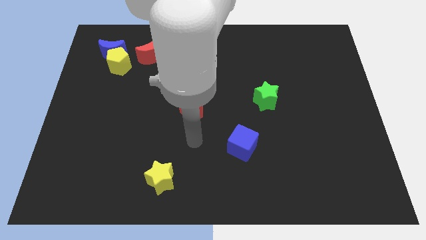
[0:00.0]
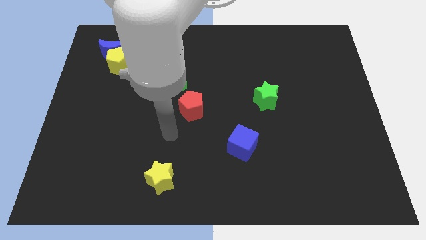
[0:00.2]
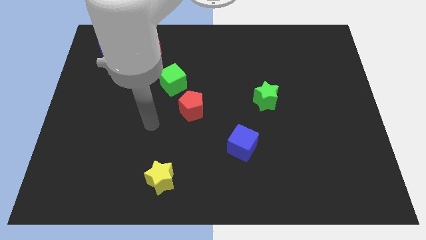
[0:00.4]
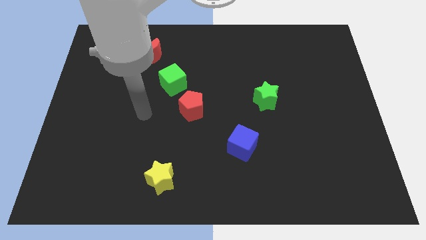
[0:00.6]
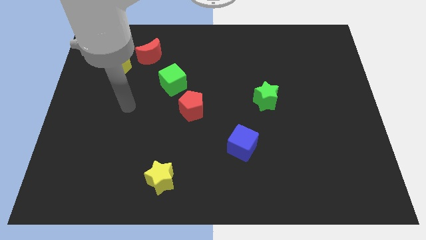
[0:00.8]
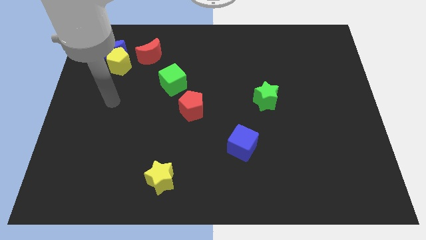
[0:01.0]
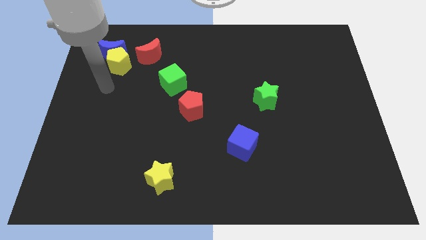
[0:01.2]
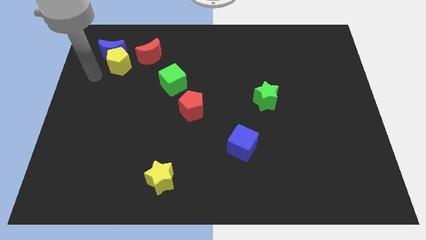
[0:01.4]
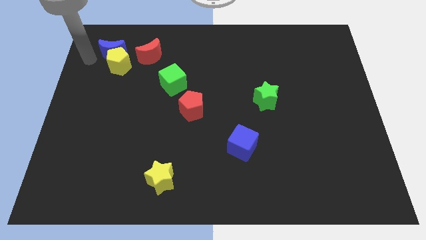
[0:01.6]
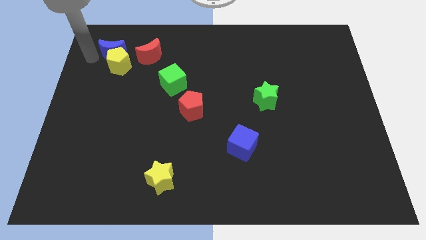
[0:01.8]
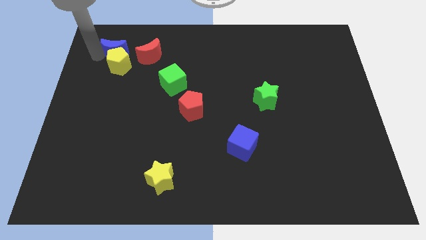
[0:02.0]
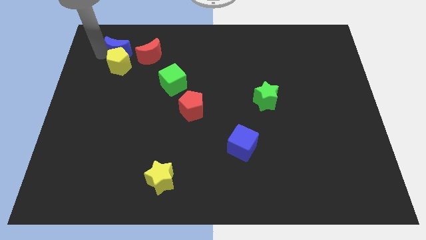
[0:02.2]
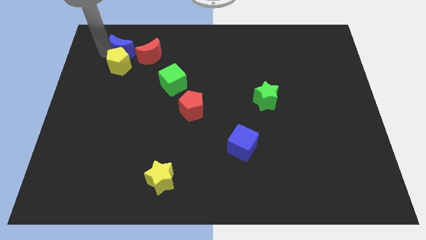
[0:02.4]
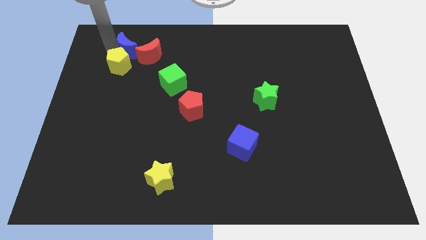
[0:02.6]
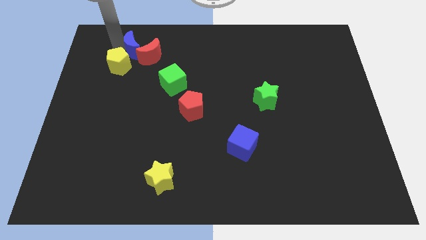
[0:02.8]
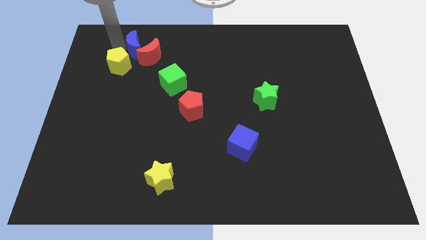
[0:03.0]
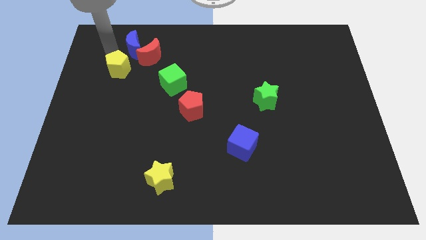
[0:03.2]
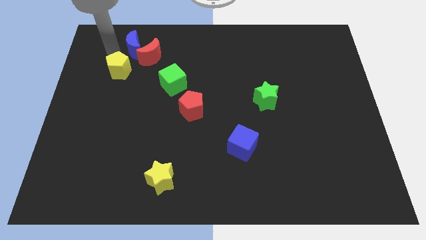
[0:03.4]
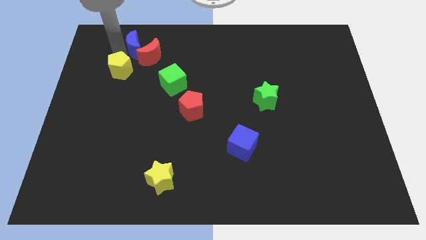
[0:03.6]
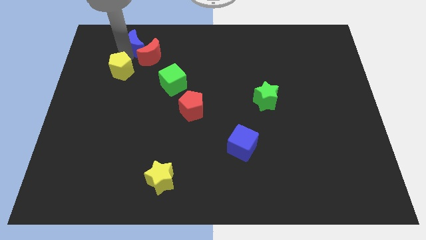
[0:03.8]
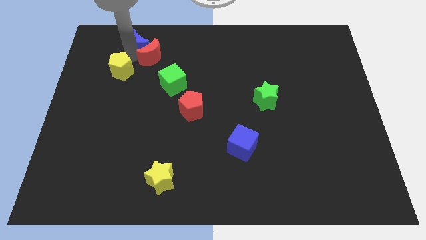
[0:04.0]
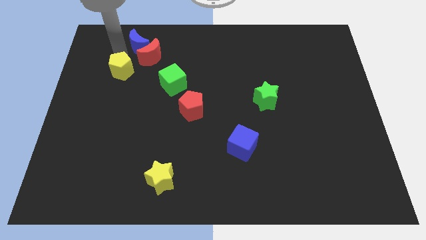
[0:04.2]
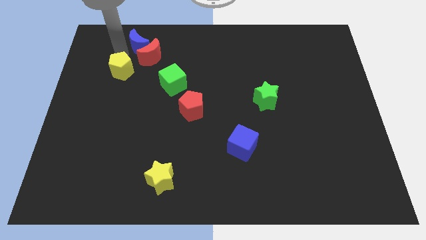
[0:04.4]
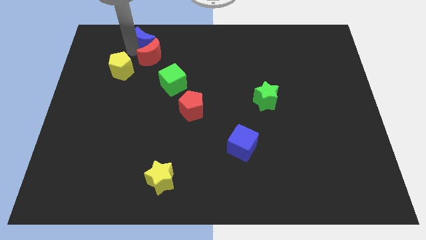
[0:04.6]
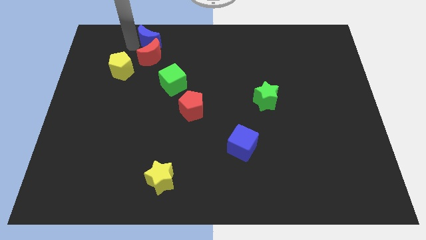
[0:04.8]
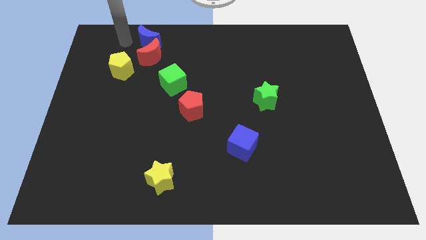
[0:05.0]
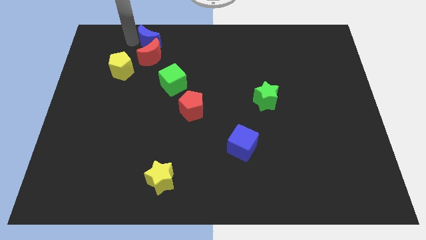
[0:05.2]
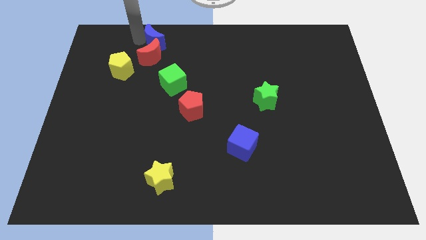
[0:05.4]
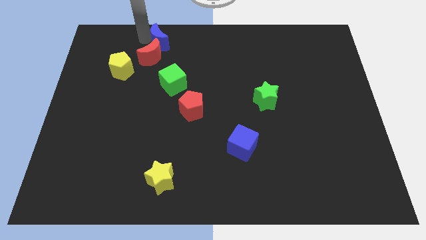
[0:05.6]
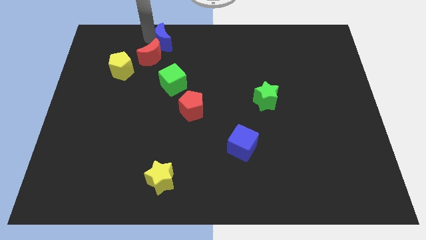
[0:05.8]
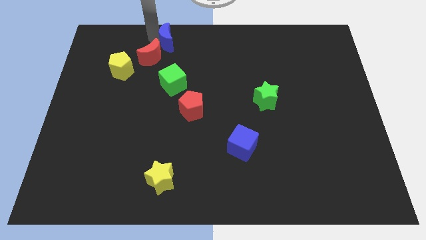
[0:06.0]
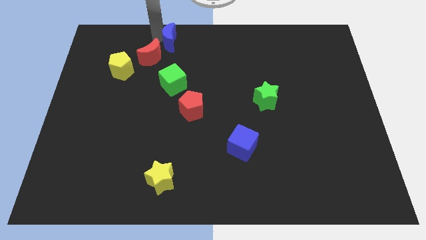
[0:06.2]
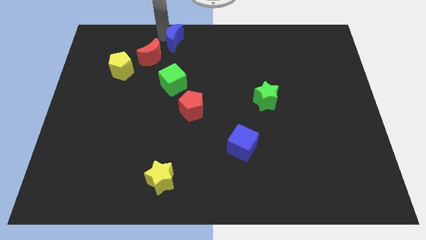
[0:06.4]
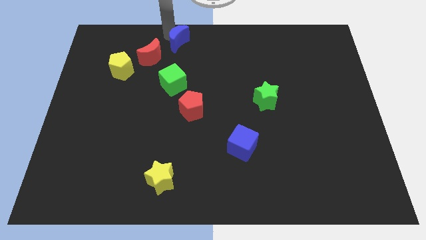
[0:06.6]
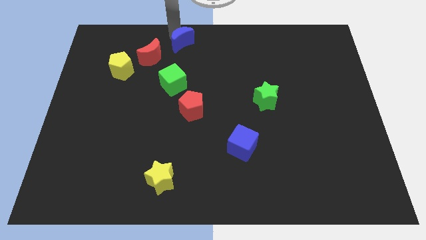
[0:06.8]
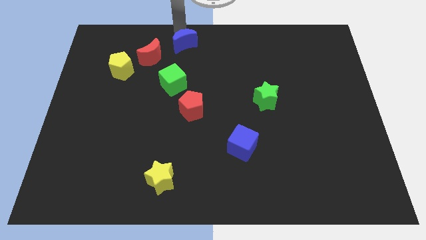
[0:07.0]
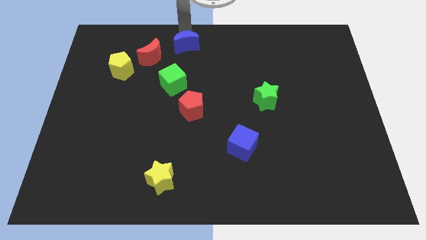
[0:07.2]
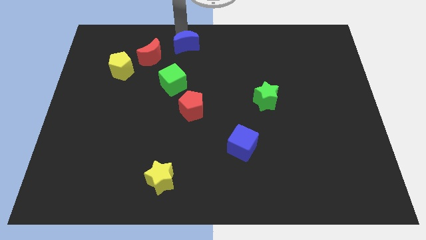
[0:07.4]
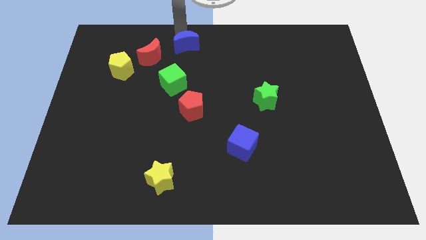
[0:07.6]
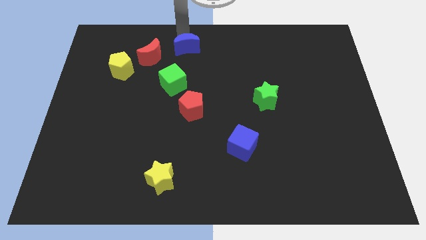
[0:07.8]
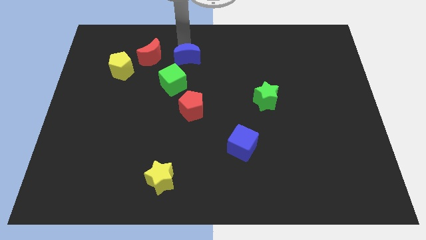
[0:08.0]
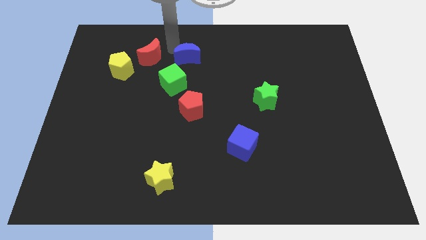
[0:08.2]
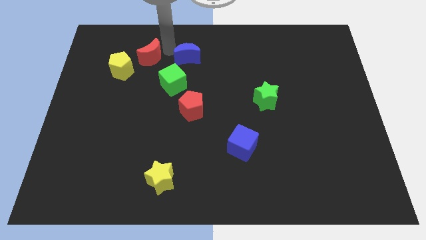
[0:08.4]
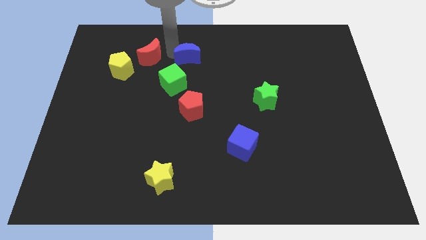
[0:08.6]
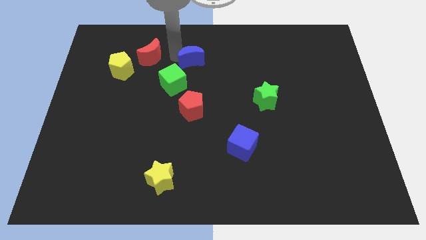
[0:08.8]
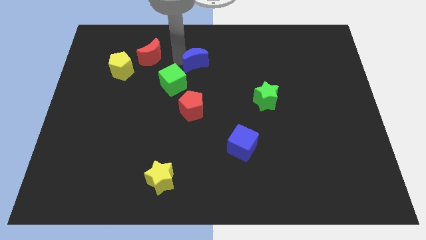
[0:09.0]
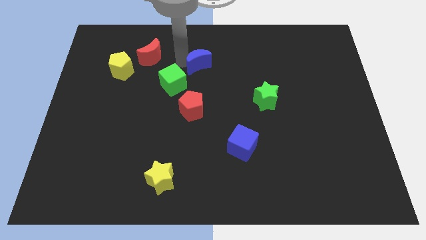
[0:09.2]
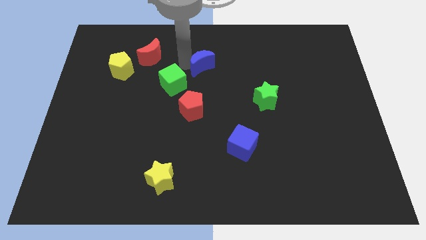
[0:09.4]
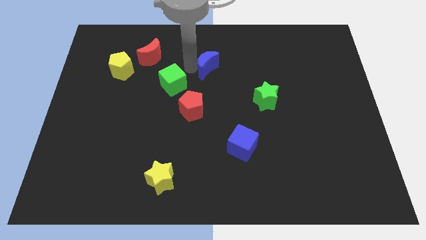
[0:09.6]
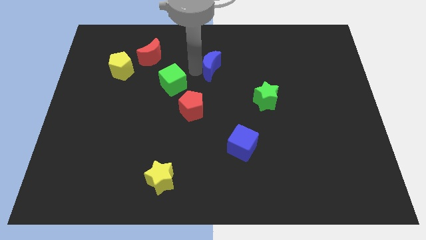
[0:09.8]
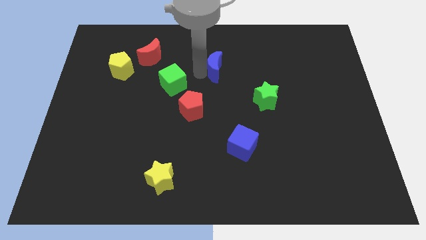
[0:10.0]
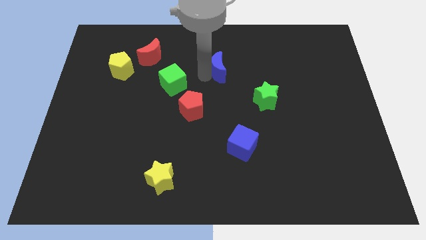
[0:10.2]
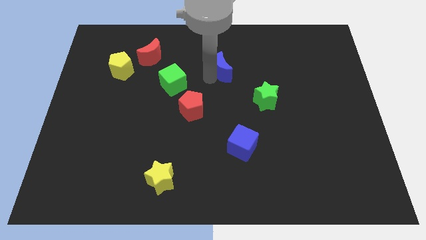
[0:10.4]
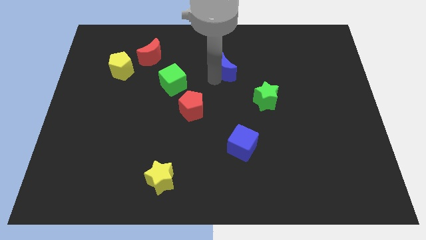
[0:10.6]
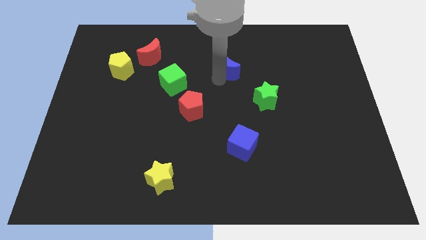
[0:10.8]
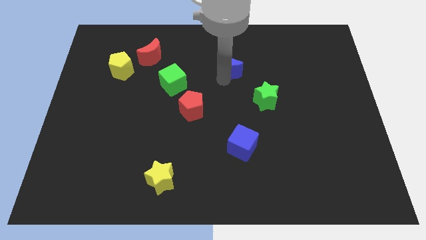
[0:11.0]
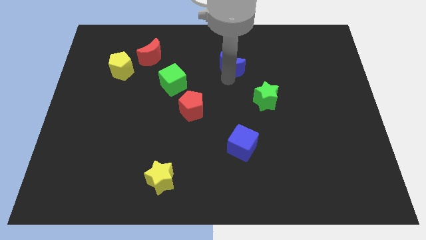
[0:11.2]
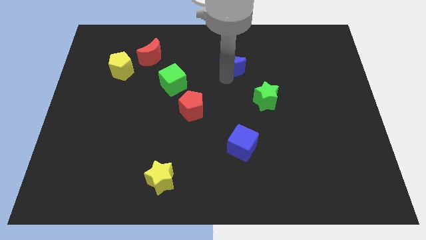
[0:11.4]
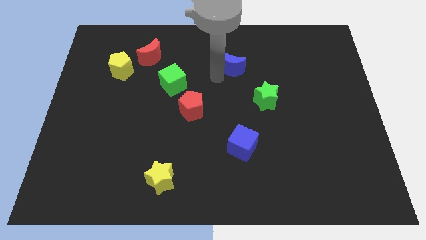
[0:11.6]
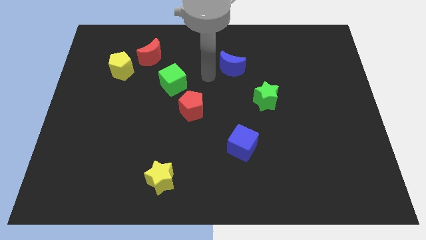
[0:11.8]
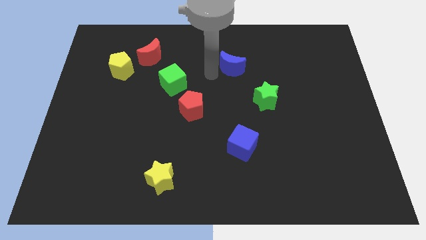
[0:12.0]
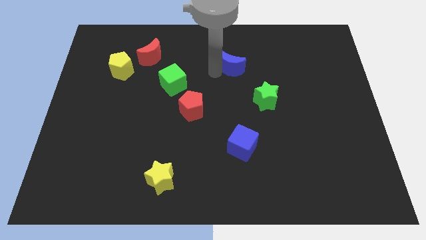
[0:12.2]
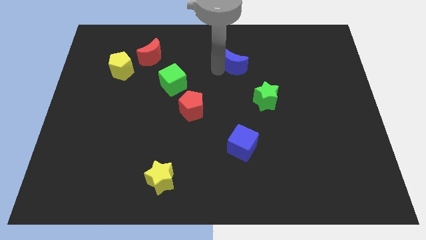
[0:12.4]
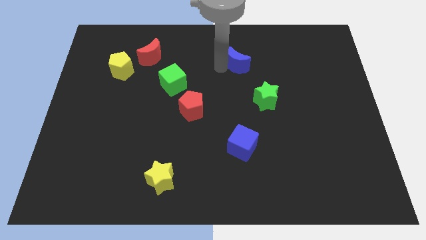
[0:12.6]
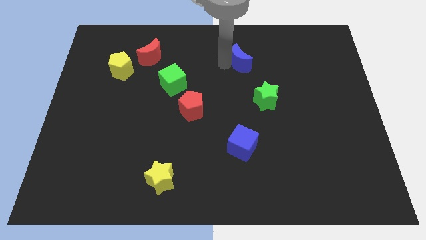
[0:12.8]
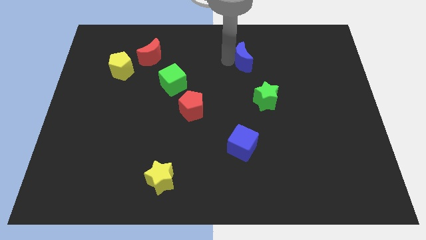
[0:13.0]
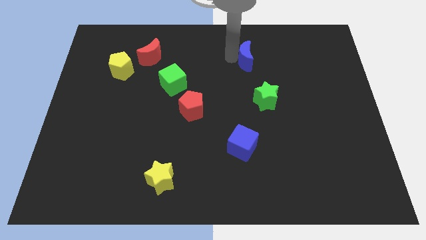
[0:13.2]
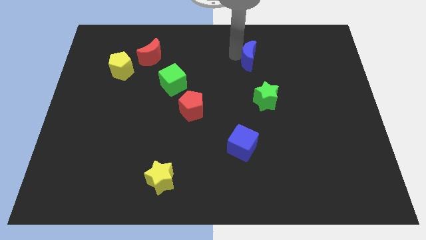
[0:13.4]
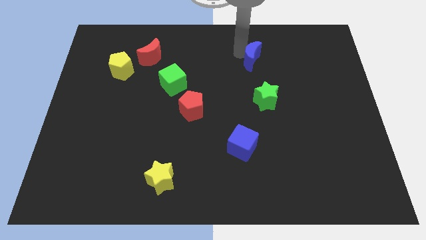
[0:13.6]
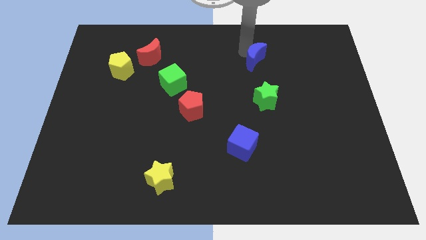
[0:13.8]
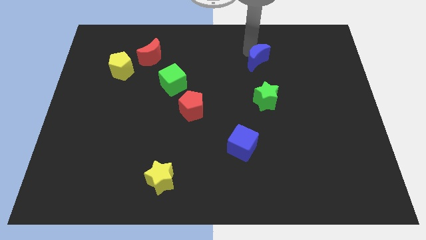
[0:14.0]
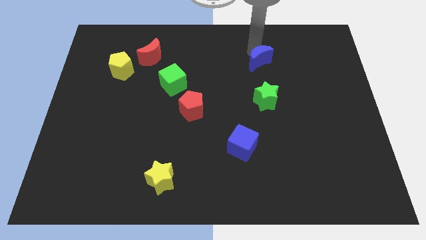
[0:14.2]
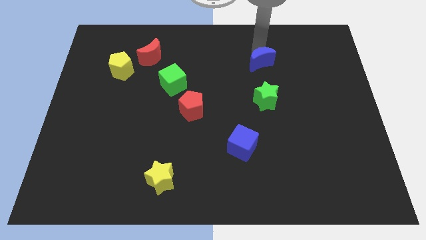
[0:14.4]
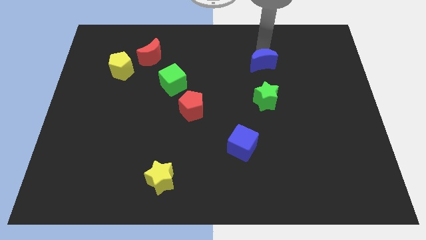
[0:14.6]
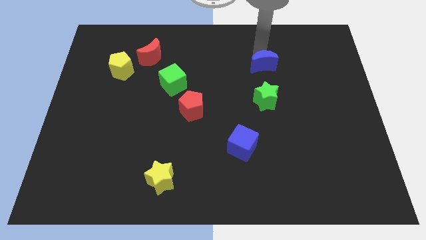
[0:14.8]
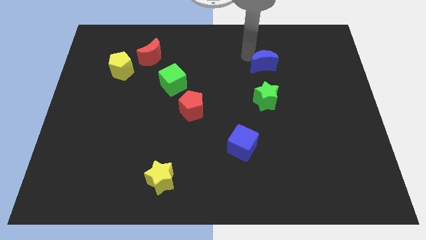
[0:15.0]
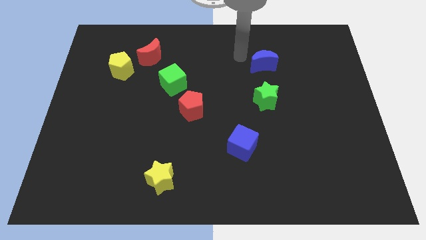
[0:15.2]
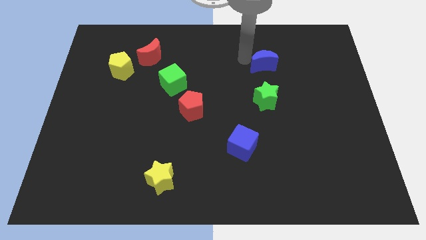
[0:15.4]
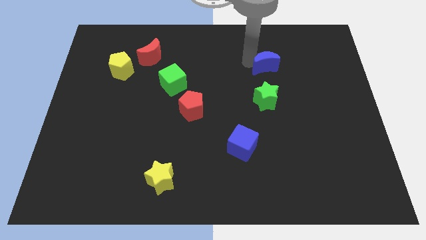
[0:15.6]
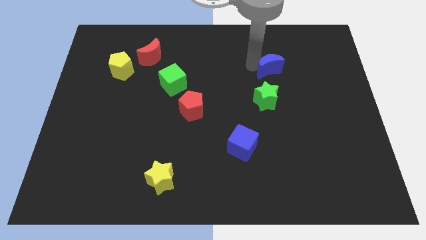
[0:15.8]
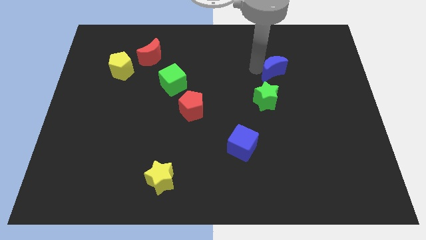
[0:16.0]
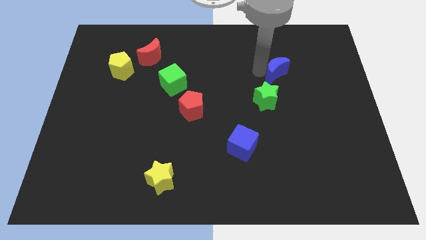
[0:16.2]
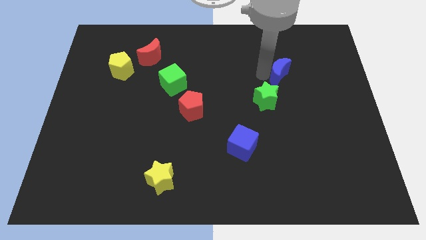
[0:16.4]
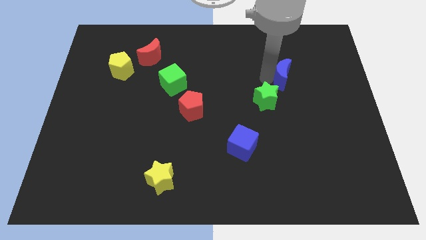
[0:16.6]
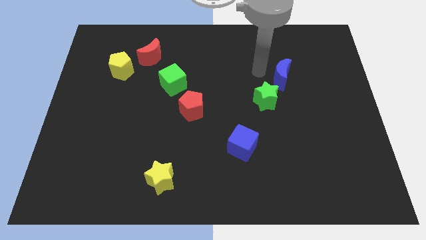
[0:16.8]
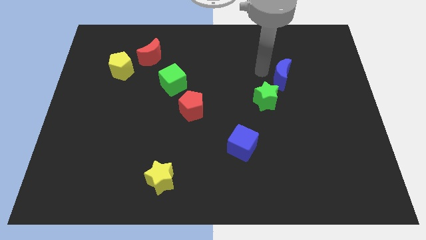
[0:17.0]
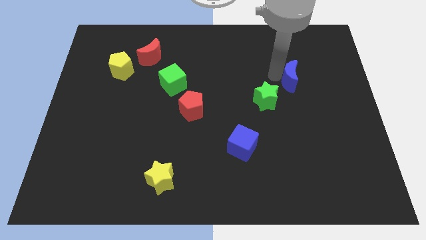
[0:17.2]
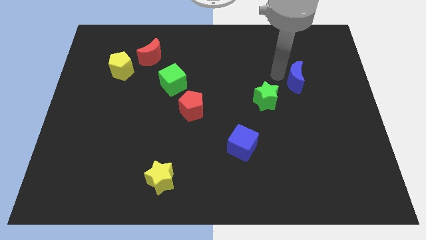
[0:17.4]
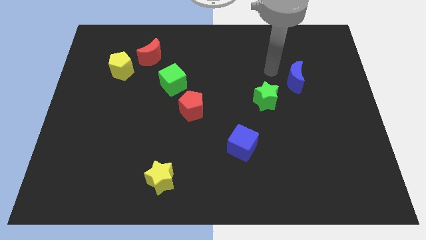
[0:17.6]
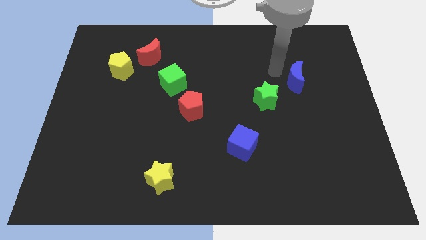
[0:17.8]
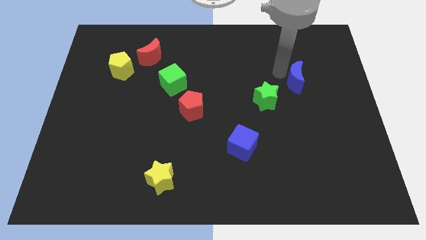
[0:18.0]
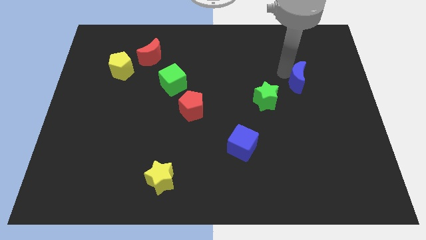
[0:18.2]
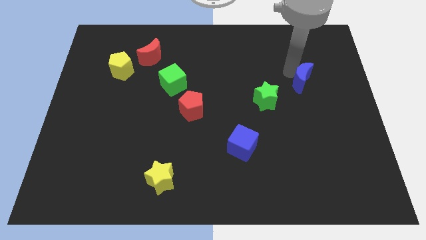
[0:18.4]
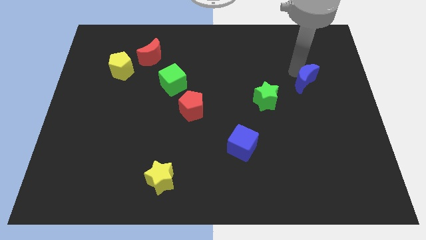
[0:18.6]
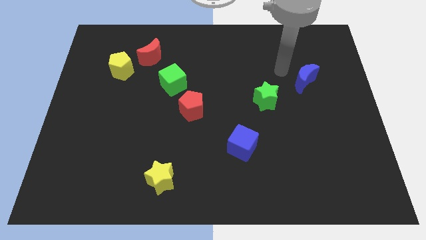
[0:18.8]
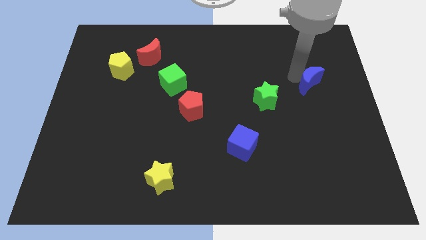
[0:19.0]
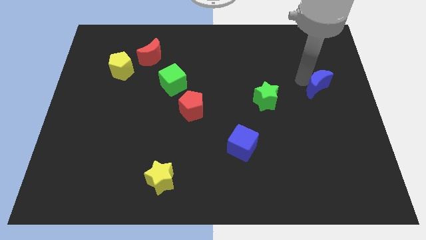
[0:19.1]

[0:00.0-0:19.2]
push the blue moon to the right side
